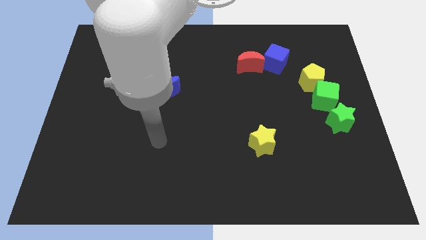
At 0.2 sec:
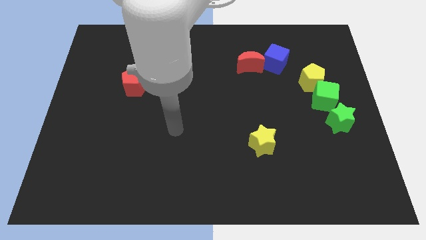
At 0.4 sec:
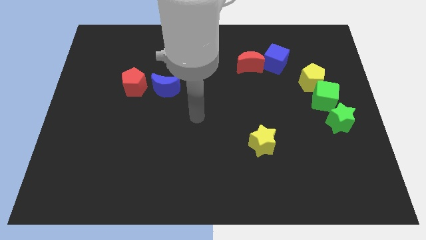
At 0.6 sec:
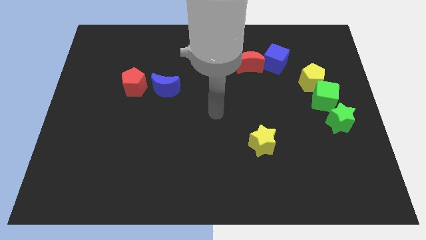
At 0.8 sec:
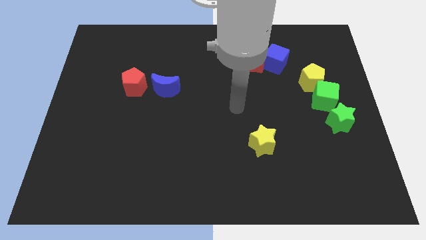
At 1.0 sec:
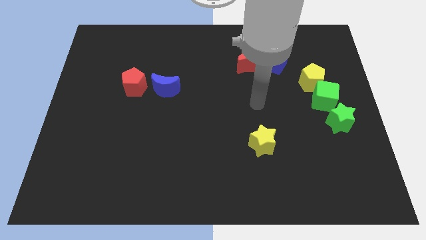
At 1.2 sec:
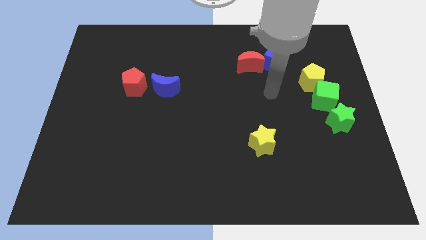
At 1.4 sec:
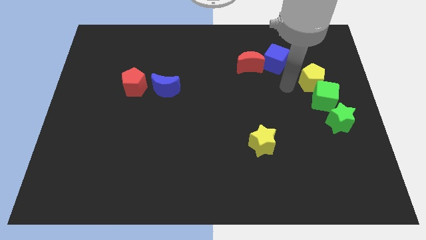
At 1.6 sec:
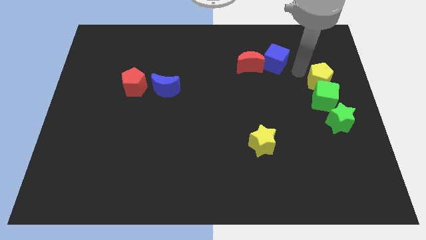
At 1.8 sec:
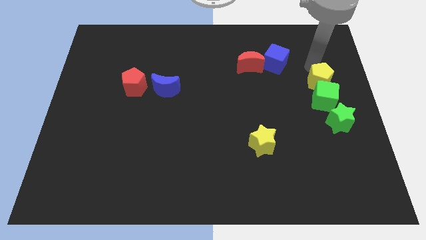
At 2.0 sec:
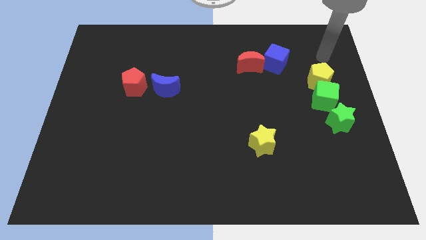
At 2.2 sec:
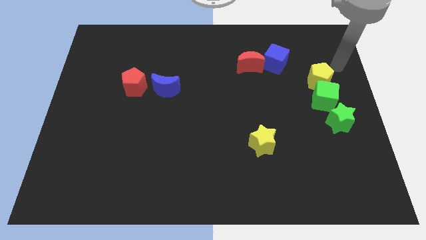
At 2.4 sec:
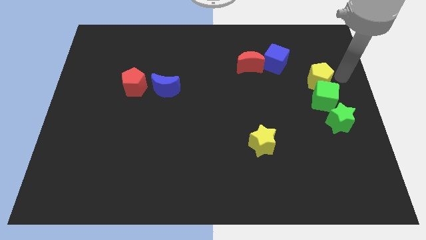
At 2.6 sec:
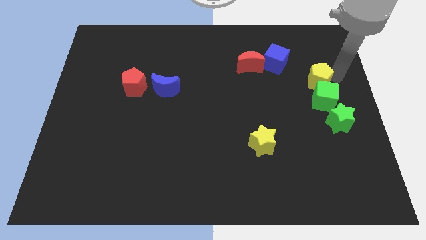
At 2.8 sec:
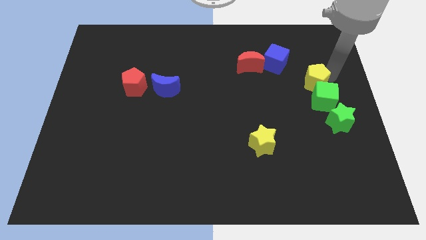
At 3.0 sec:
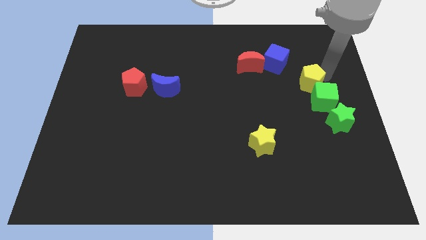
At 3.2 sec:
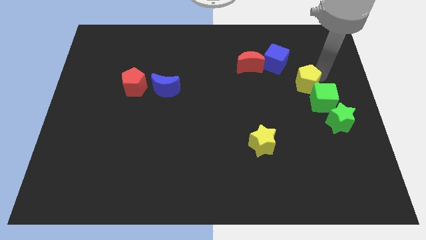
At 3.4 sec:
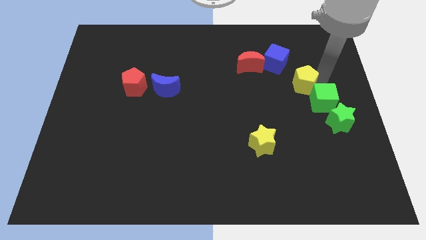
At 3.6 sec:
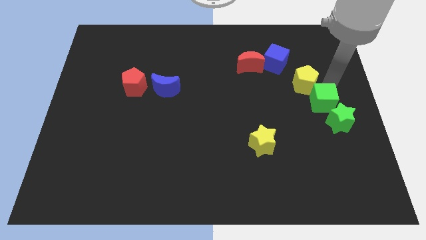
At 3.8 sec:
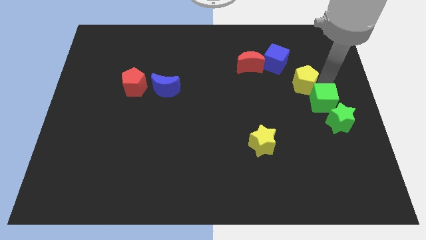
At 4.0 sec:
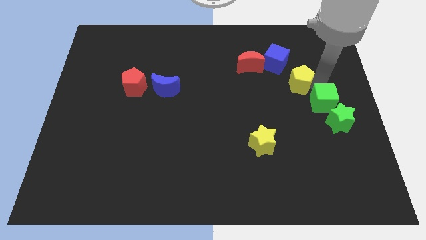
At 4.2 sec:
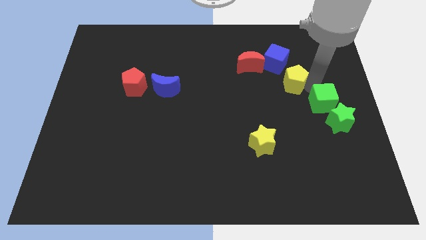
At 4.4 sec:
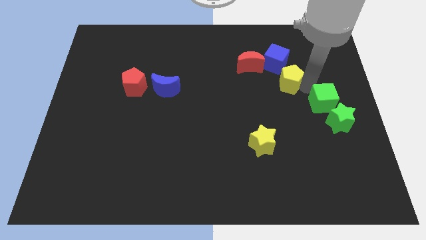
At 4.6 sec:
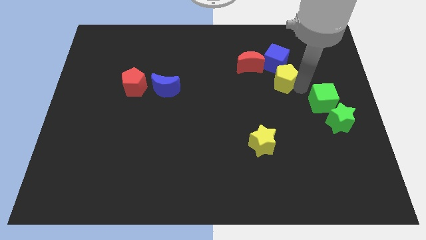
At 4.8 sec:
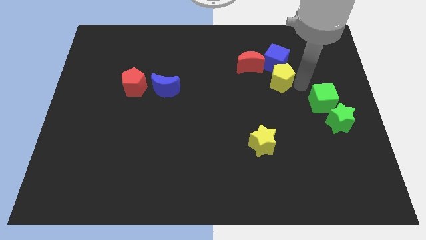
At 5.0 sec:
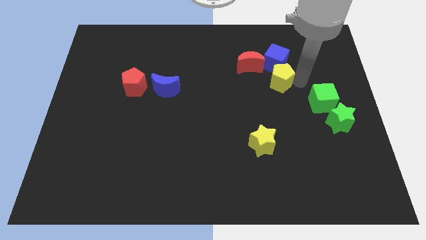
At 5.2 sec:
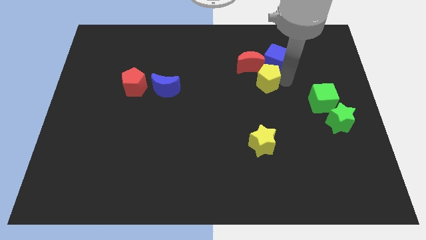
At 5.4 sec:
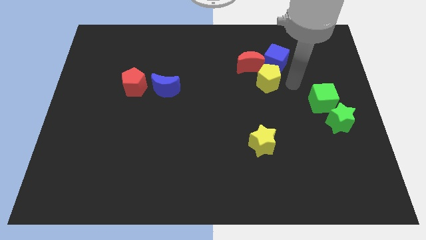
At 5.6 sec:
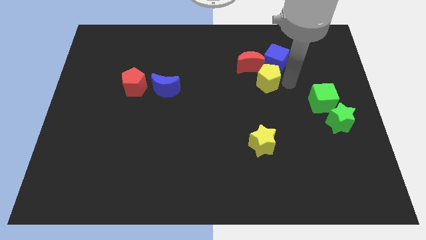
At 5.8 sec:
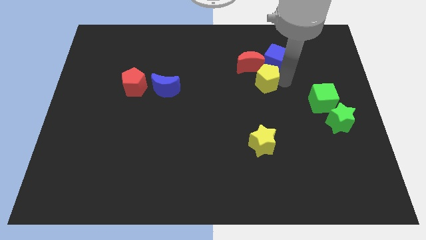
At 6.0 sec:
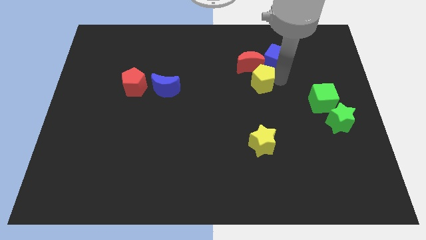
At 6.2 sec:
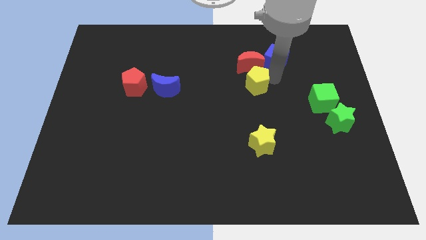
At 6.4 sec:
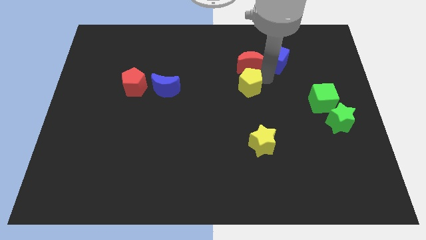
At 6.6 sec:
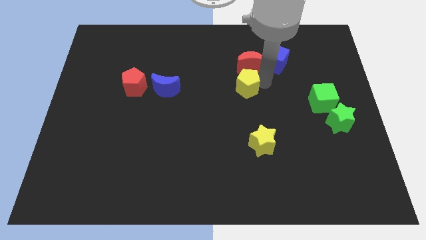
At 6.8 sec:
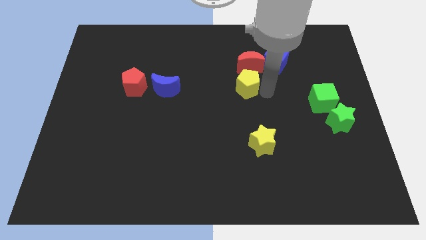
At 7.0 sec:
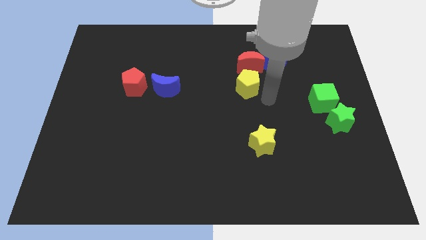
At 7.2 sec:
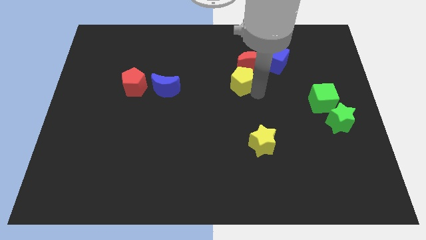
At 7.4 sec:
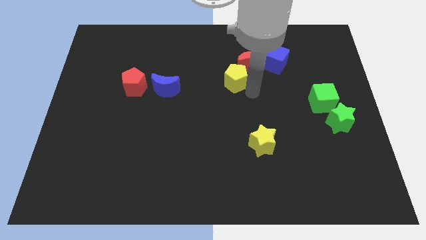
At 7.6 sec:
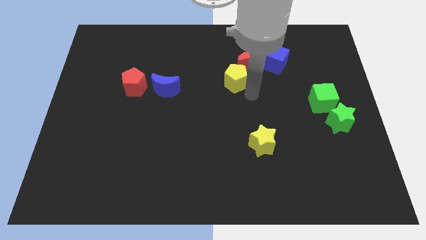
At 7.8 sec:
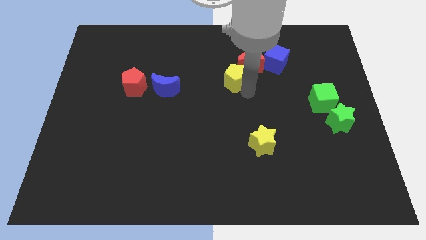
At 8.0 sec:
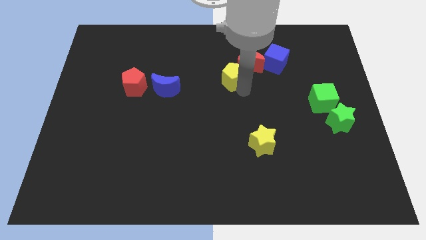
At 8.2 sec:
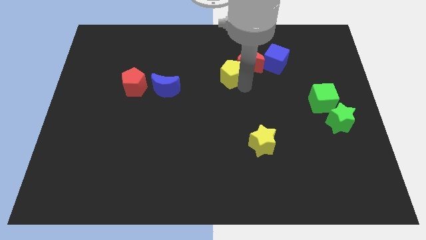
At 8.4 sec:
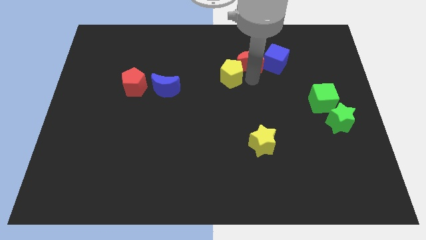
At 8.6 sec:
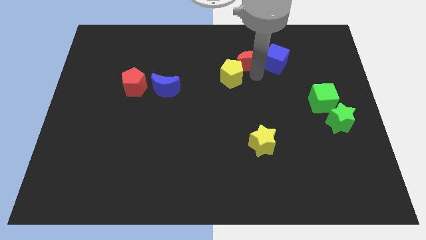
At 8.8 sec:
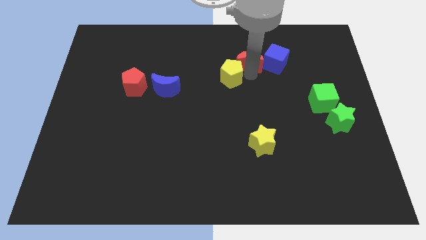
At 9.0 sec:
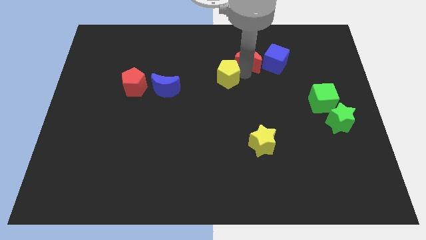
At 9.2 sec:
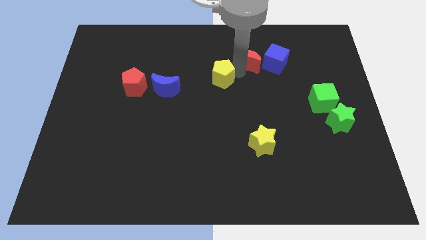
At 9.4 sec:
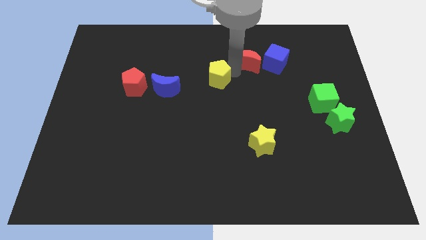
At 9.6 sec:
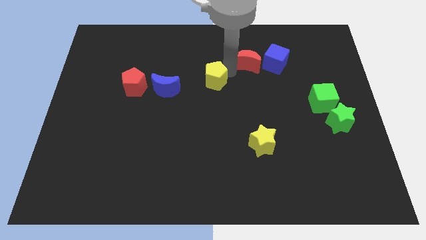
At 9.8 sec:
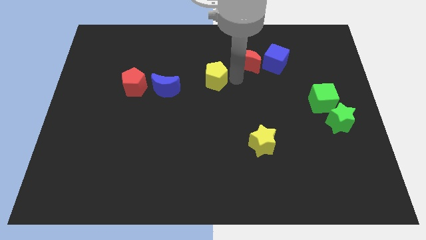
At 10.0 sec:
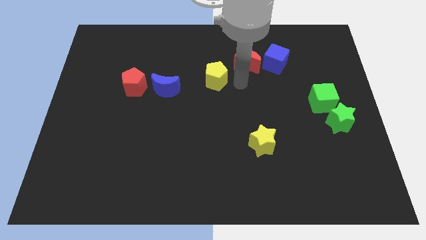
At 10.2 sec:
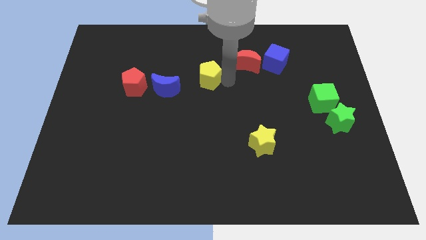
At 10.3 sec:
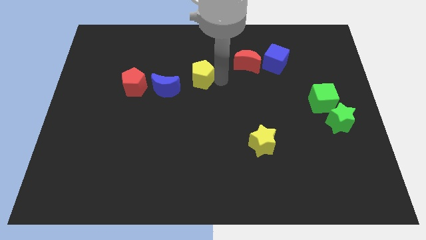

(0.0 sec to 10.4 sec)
slide the yellow pentagon to the top right side of the blue moon
